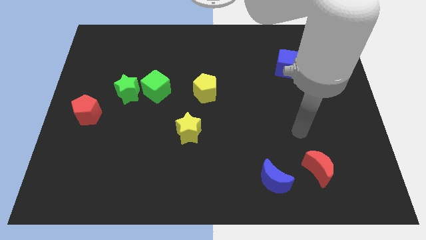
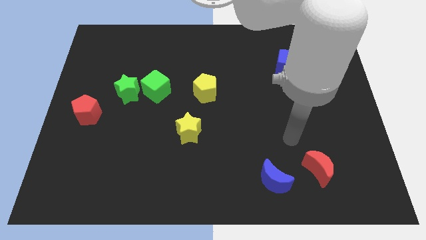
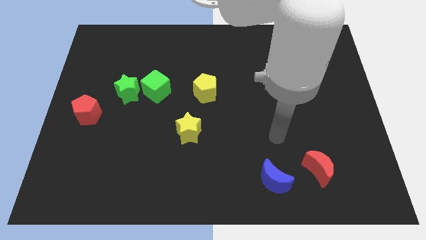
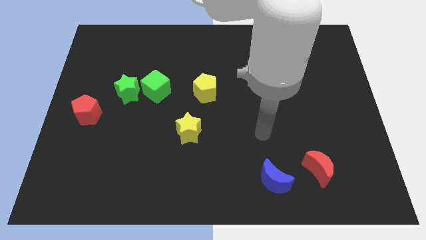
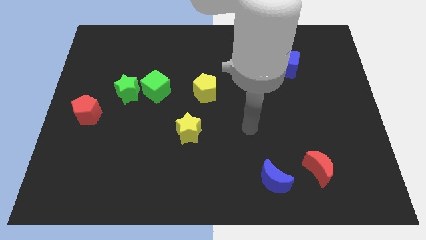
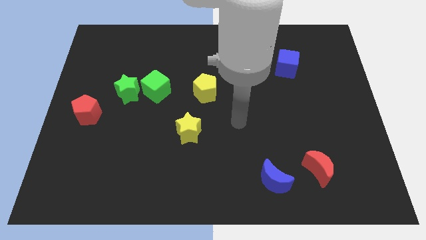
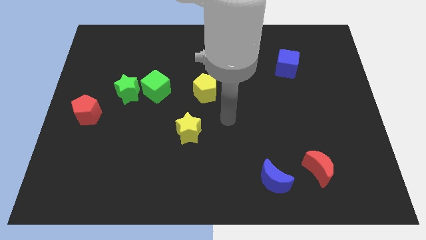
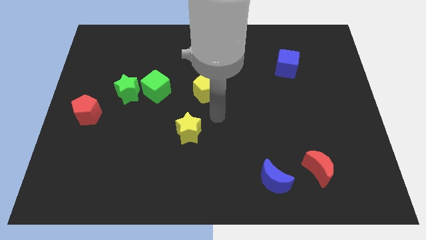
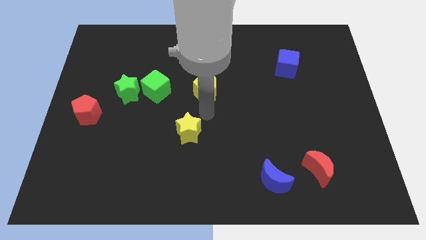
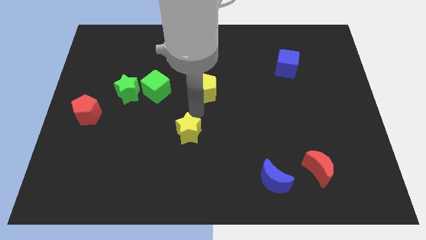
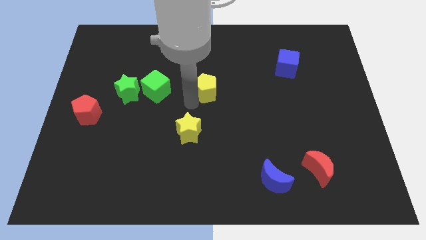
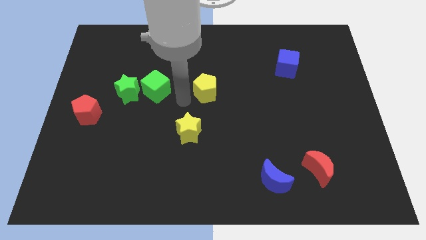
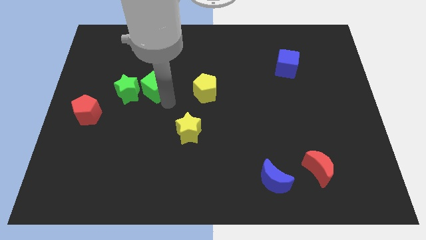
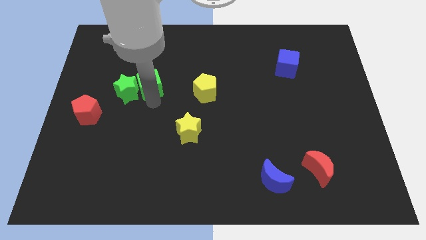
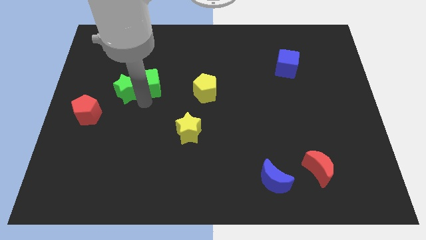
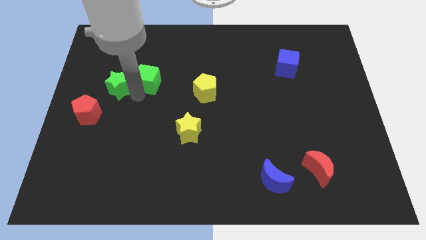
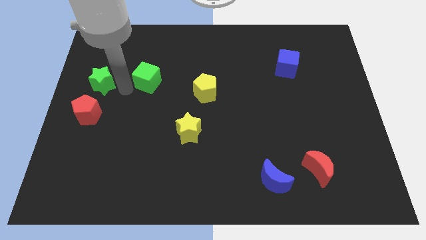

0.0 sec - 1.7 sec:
pull the green cube apart from the green star

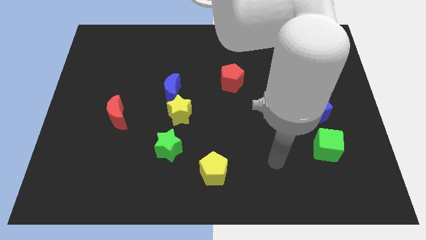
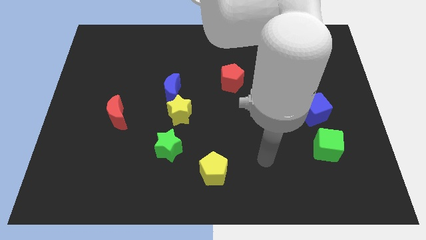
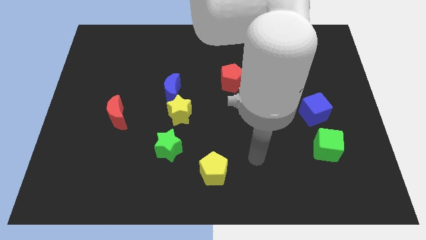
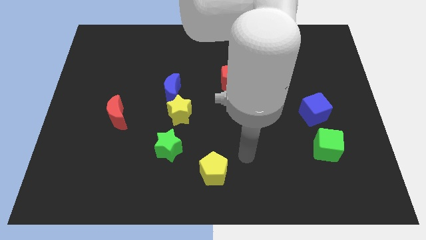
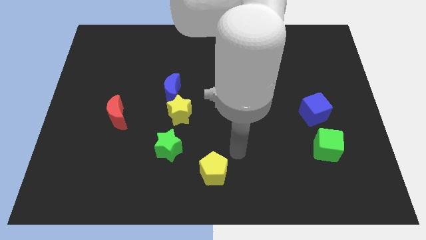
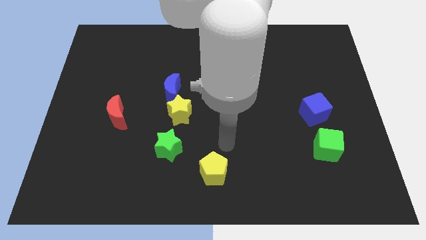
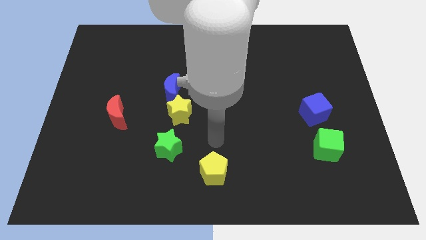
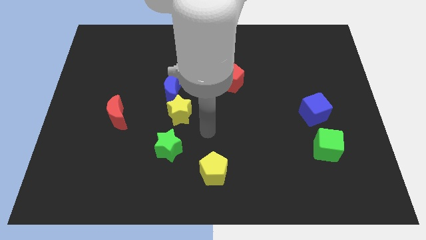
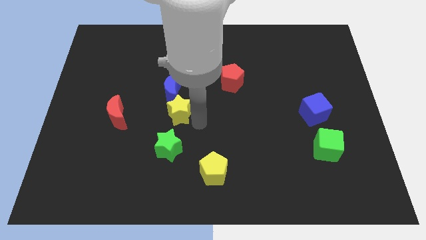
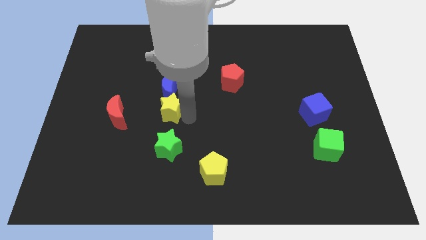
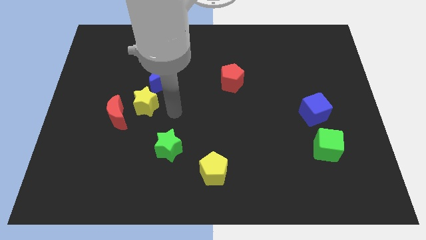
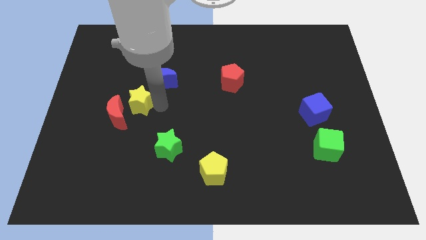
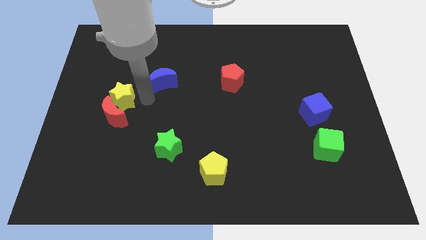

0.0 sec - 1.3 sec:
move the blue moon away from the yellow star

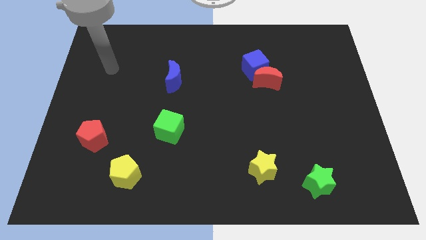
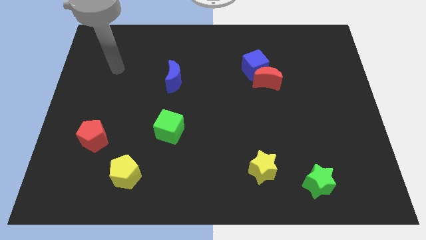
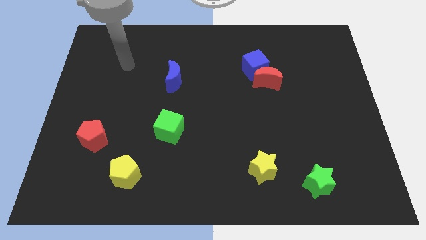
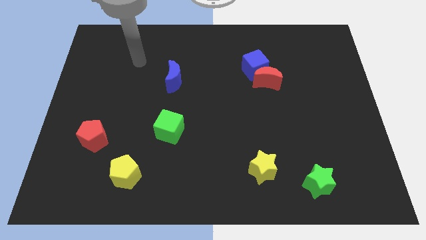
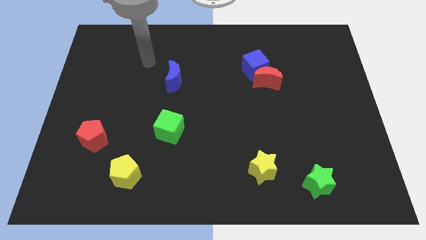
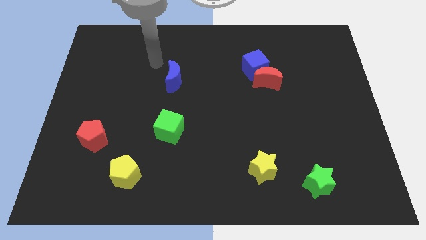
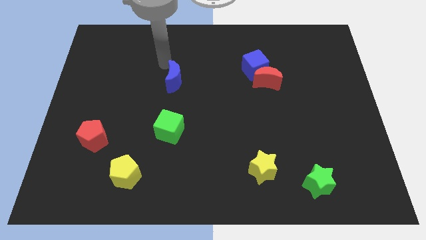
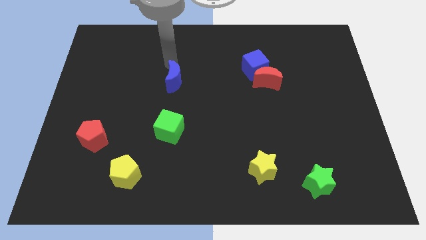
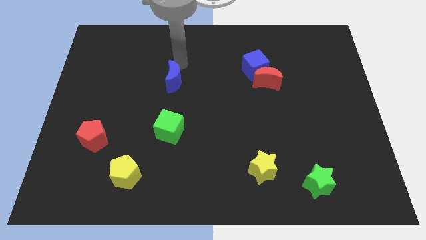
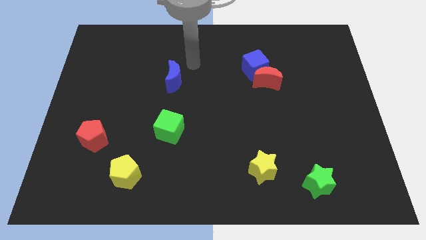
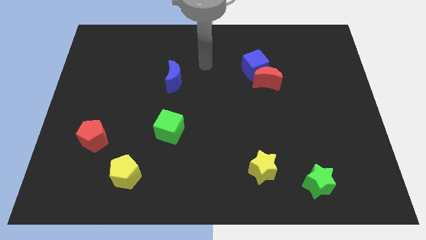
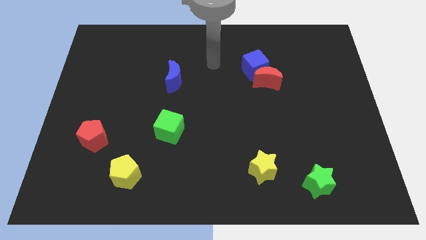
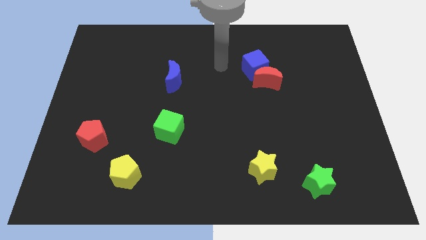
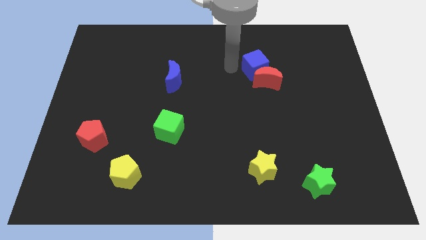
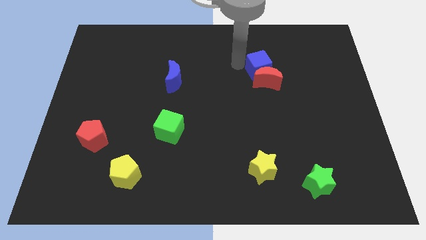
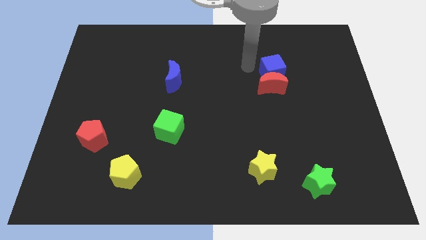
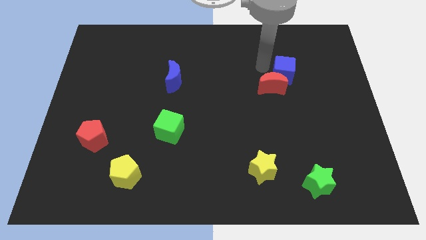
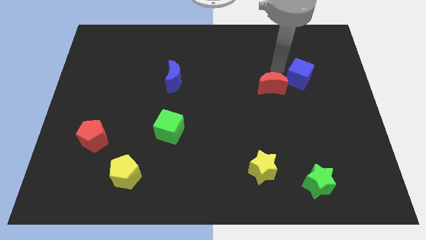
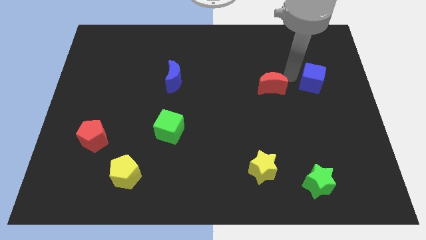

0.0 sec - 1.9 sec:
separate the red moon from the blue cube

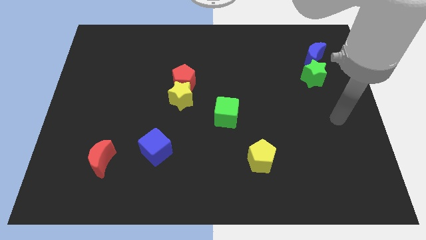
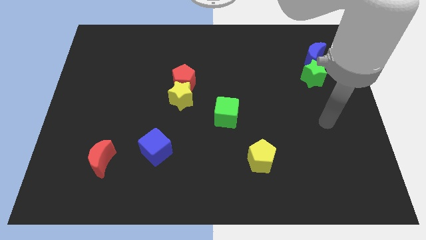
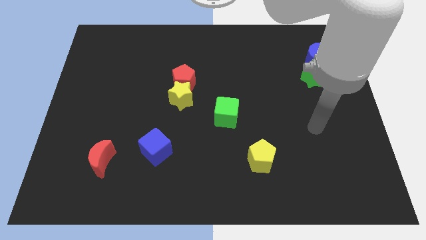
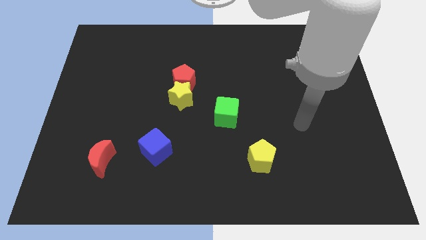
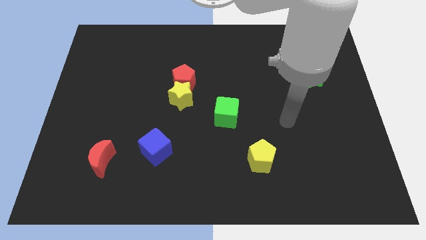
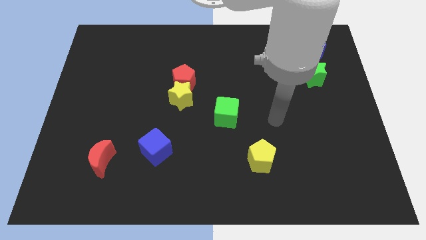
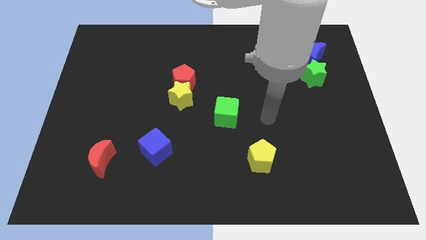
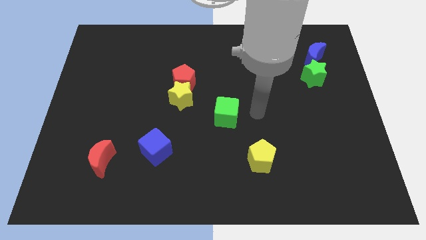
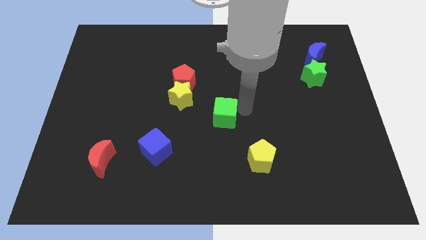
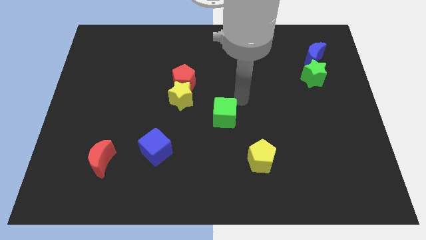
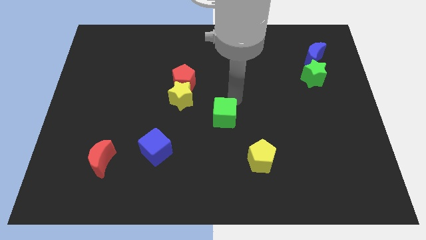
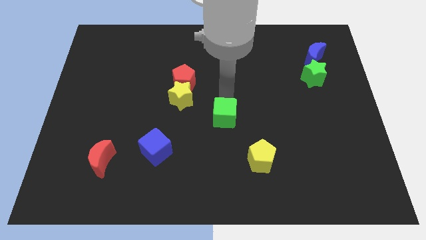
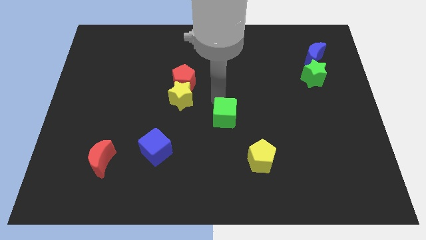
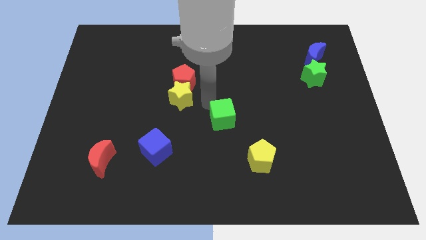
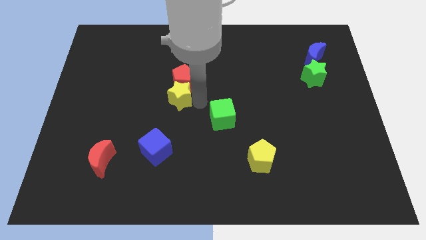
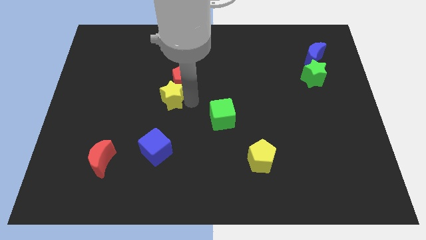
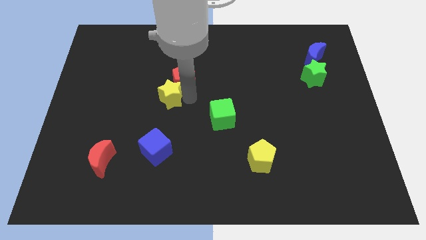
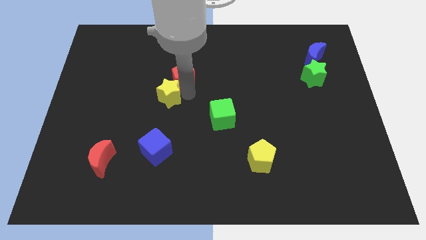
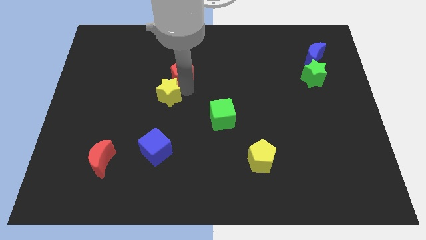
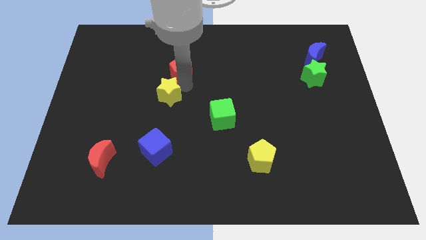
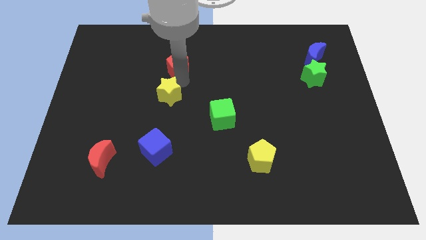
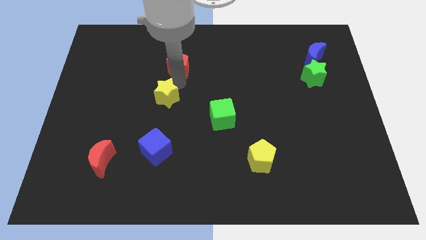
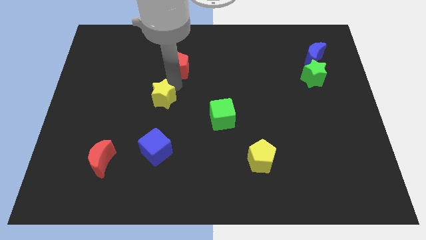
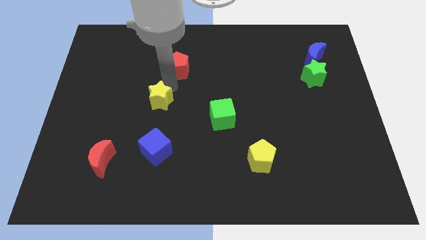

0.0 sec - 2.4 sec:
pull the red pentagon apart from the yellow star

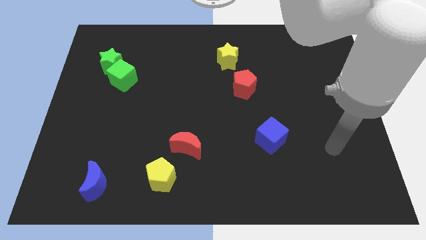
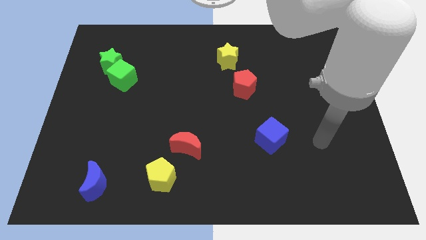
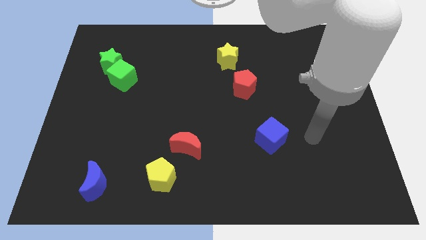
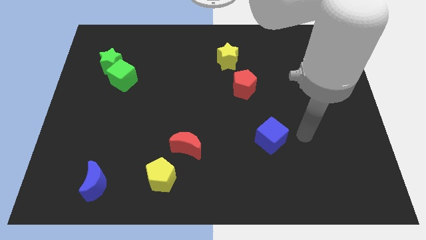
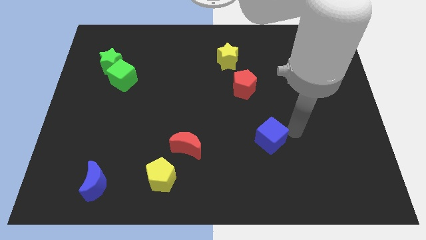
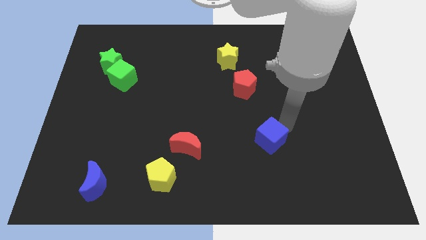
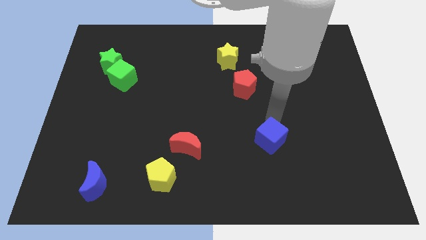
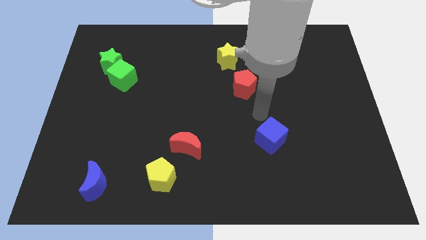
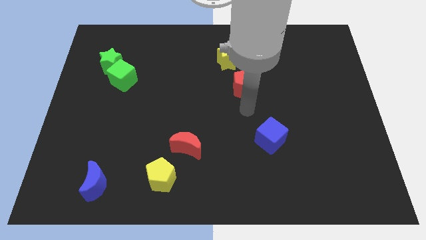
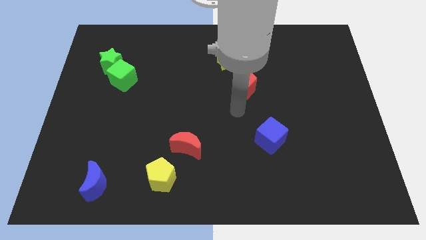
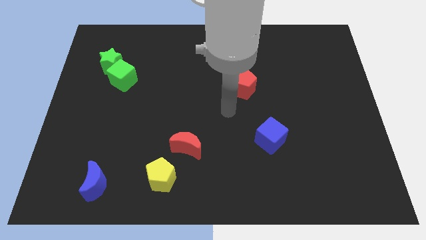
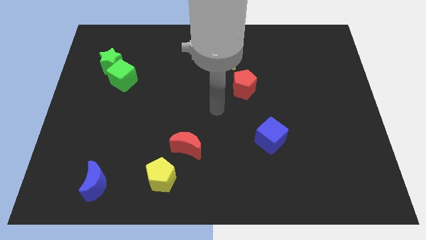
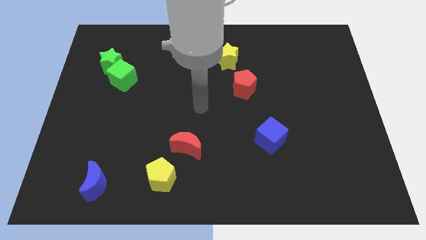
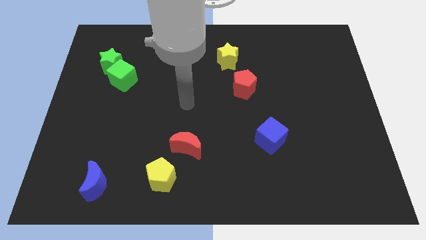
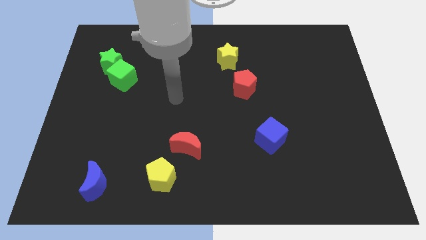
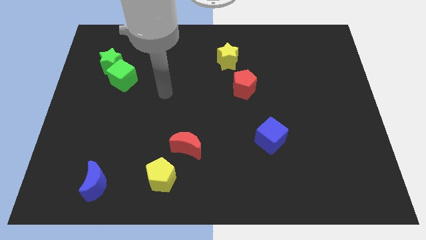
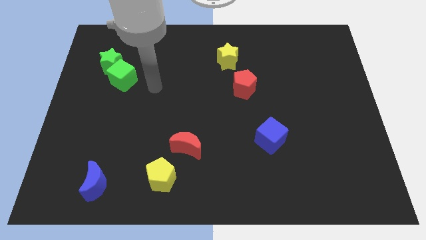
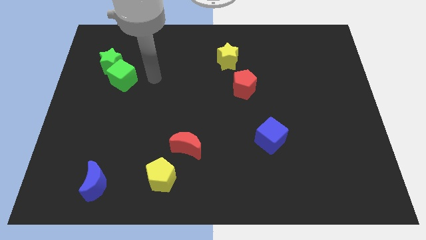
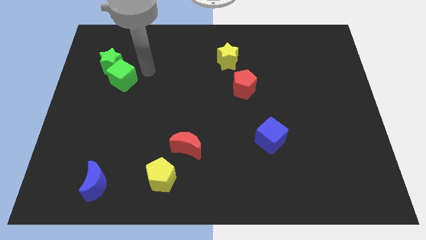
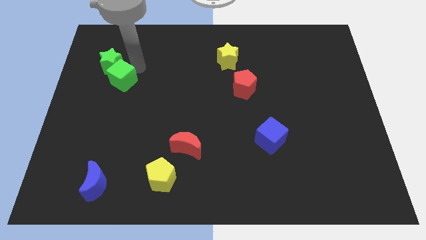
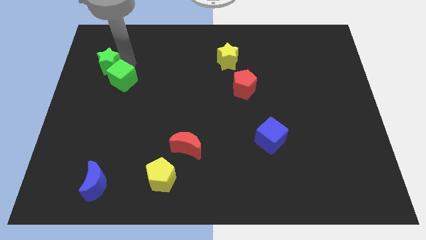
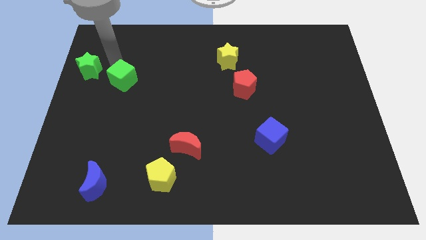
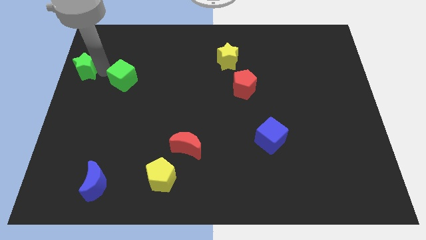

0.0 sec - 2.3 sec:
move the green cube away from the green star
